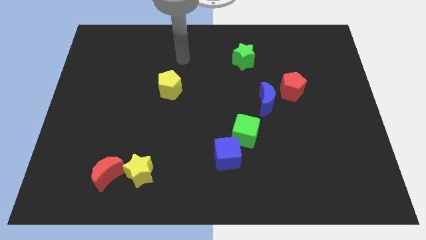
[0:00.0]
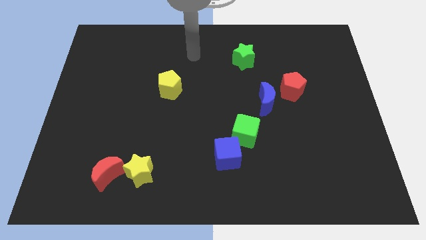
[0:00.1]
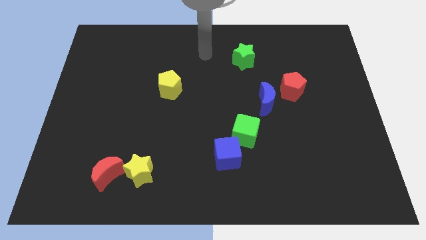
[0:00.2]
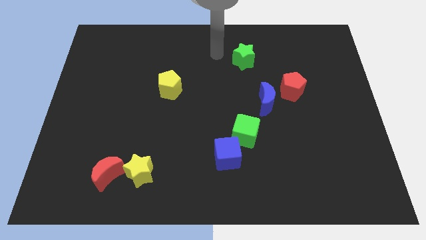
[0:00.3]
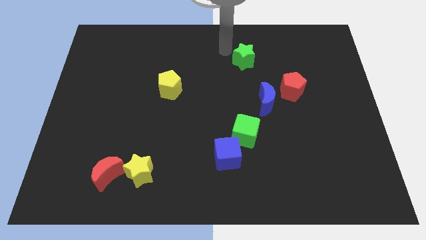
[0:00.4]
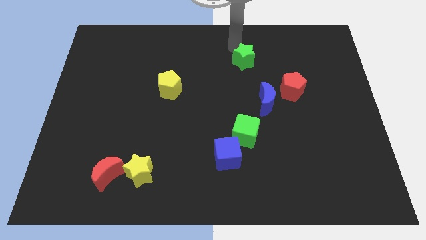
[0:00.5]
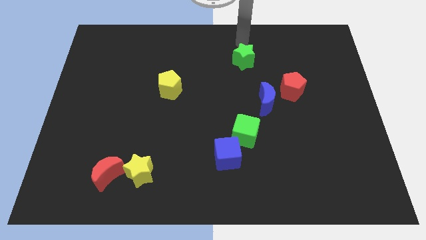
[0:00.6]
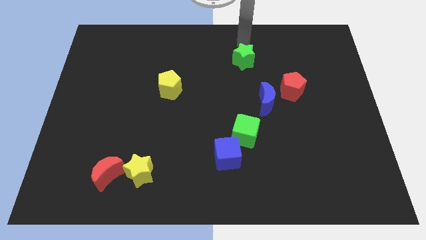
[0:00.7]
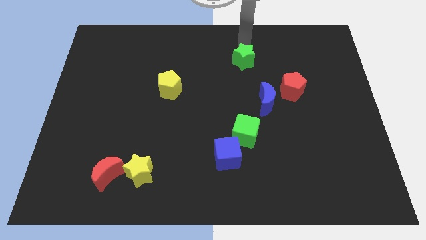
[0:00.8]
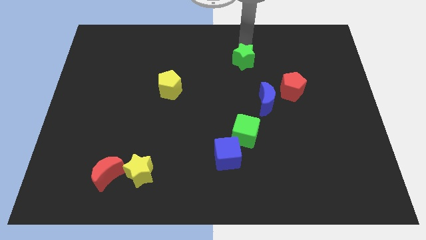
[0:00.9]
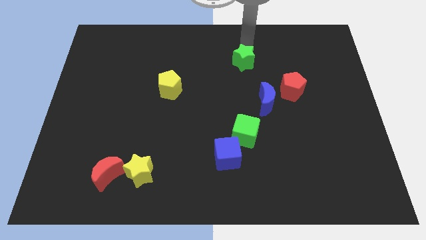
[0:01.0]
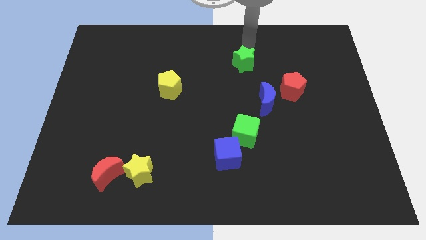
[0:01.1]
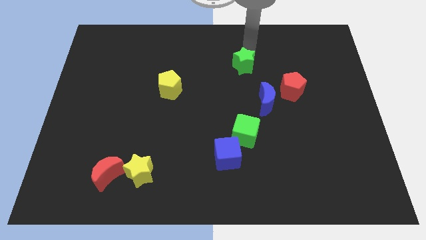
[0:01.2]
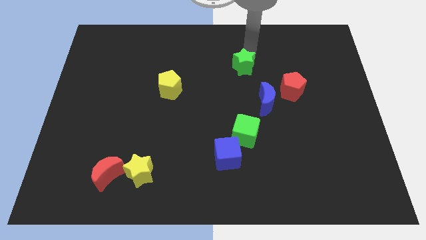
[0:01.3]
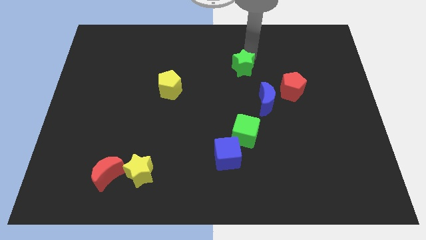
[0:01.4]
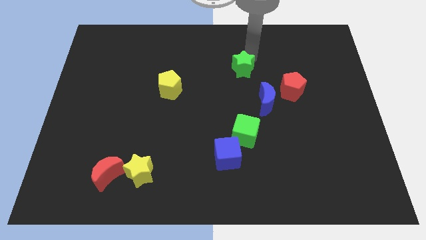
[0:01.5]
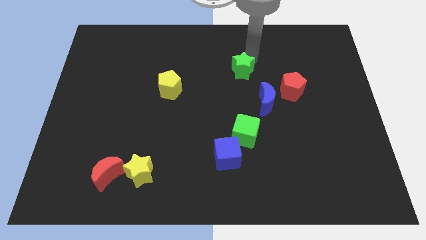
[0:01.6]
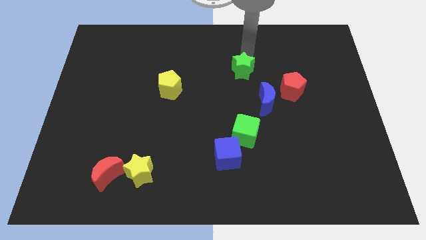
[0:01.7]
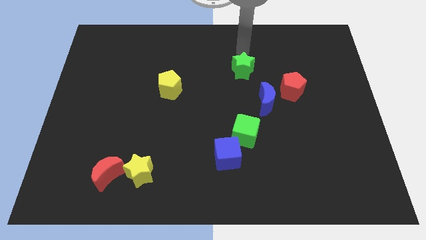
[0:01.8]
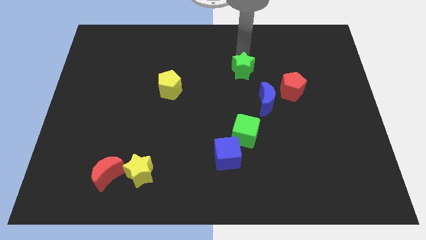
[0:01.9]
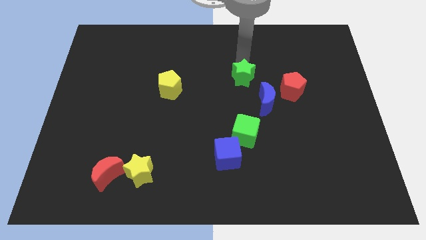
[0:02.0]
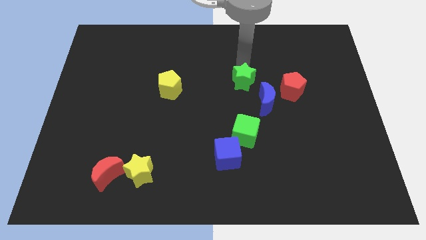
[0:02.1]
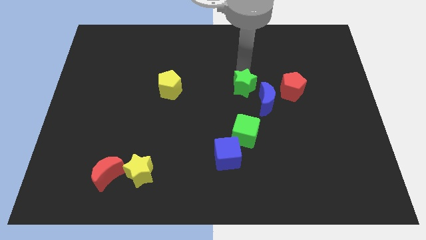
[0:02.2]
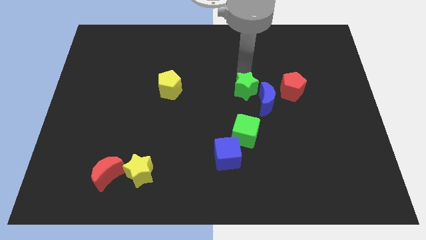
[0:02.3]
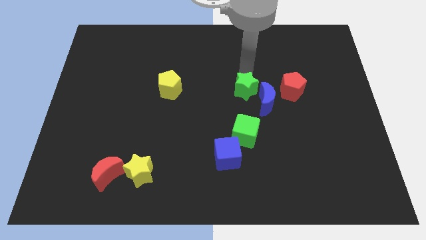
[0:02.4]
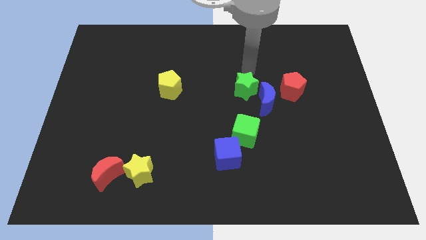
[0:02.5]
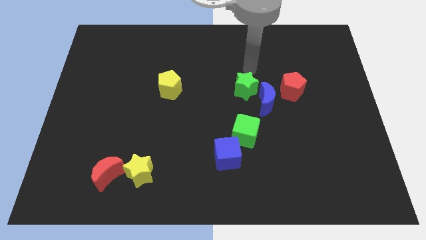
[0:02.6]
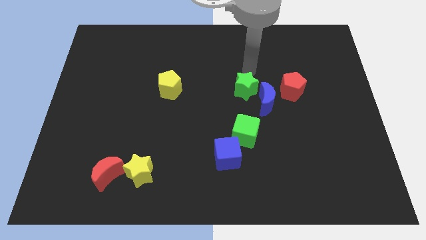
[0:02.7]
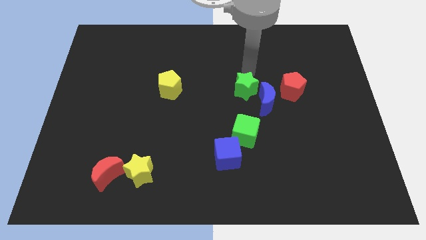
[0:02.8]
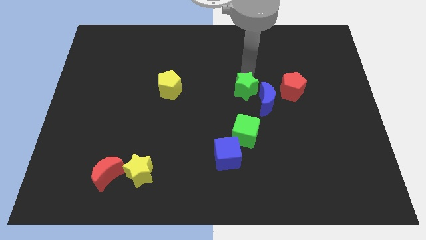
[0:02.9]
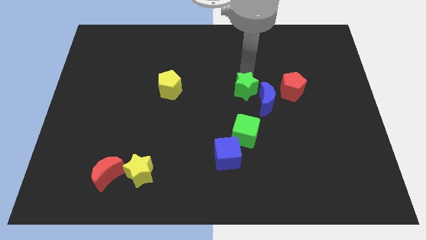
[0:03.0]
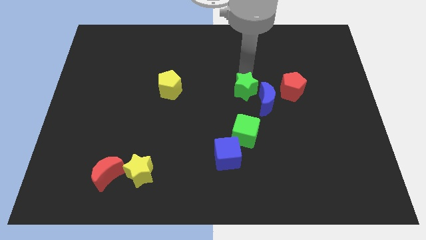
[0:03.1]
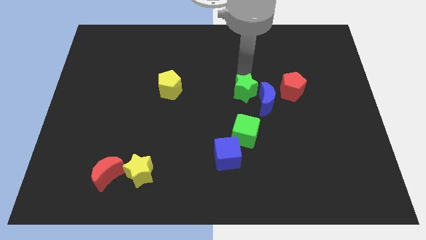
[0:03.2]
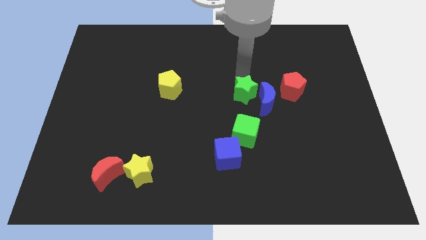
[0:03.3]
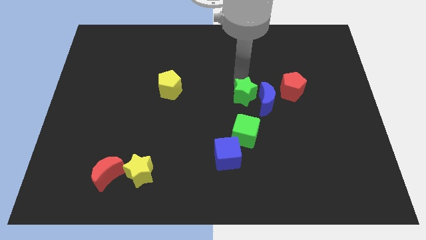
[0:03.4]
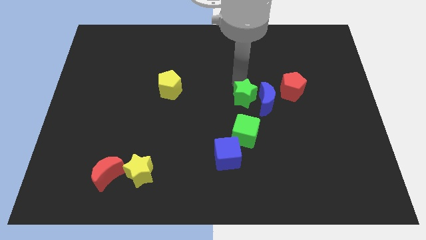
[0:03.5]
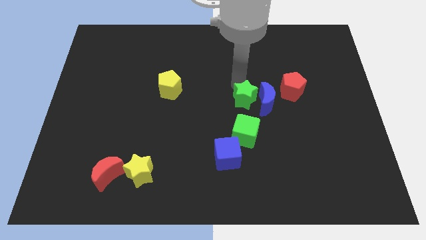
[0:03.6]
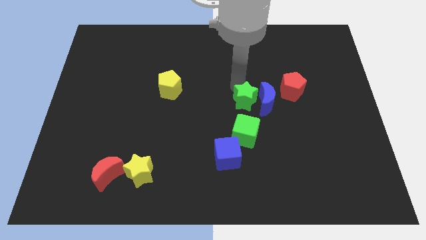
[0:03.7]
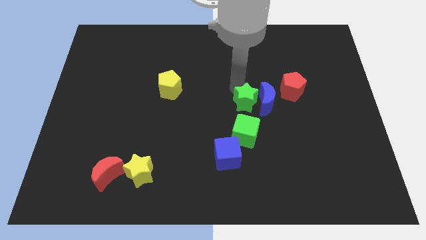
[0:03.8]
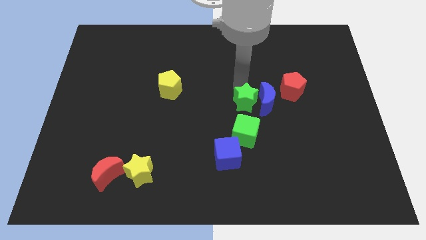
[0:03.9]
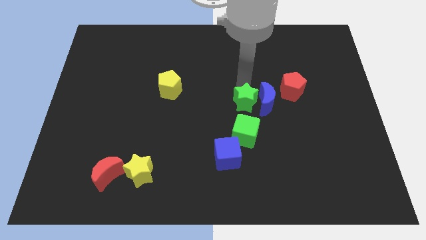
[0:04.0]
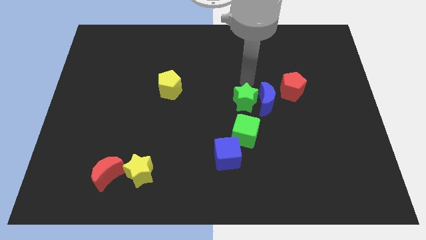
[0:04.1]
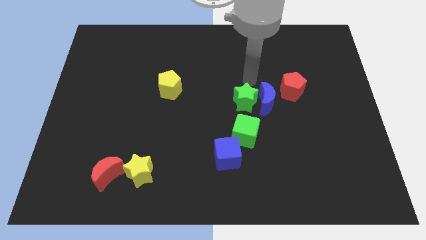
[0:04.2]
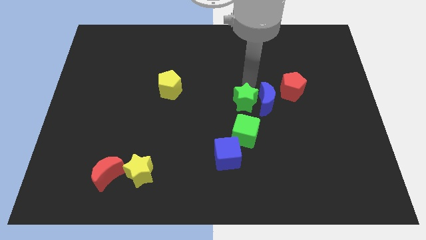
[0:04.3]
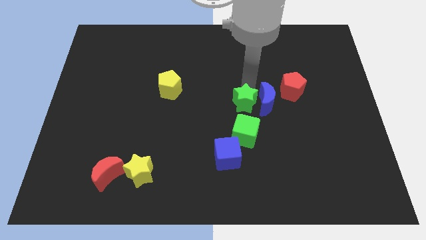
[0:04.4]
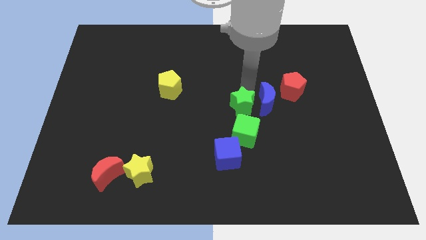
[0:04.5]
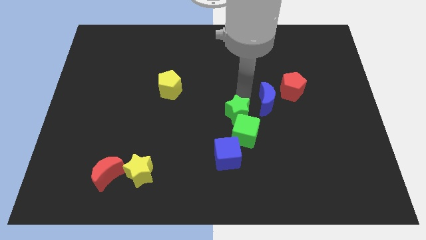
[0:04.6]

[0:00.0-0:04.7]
push the green star next to the green cube

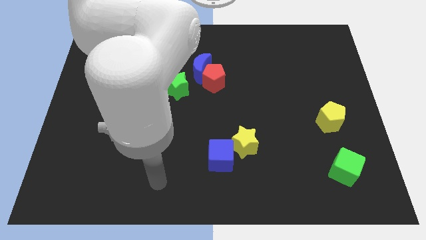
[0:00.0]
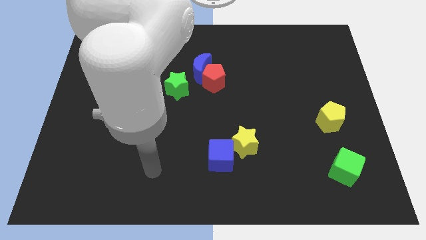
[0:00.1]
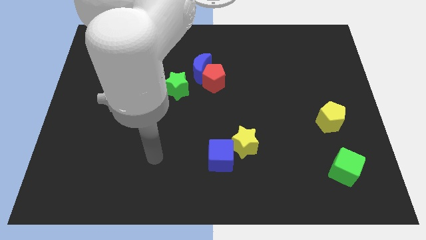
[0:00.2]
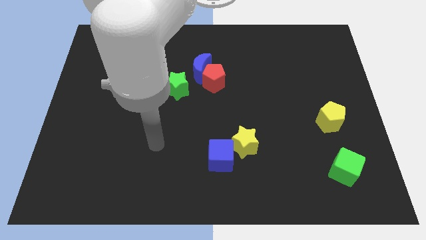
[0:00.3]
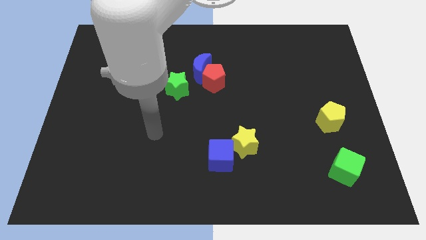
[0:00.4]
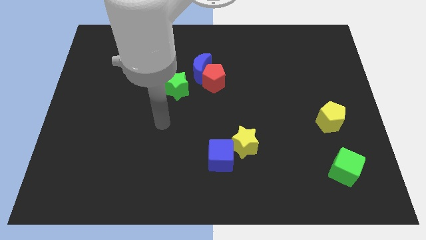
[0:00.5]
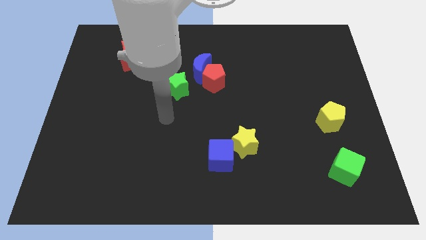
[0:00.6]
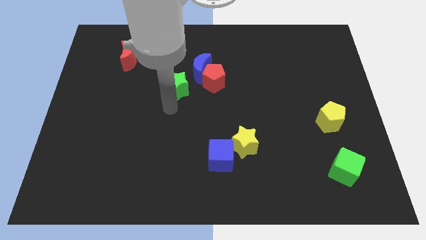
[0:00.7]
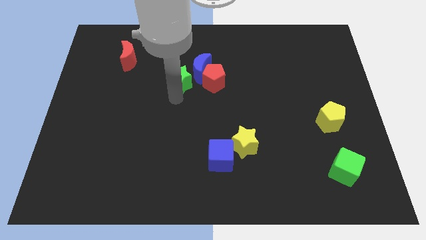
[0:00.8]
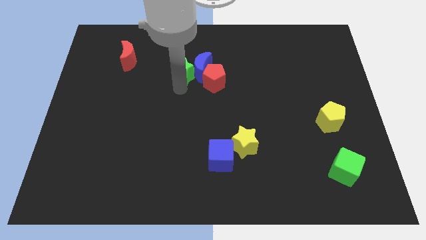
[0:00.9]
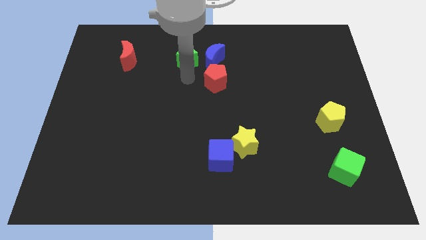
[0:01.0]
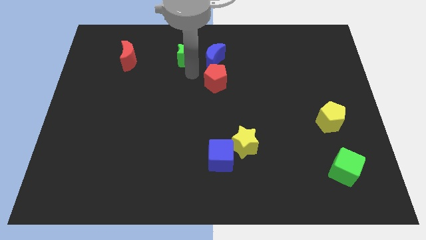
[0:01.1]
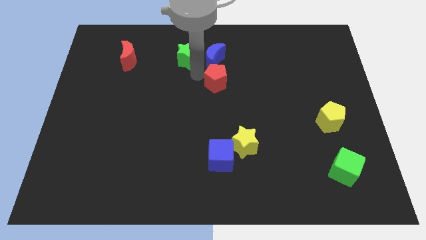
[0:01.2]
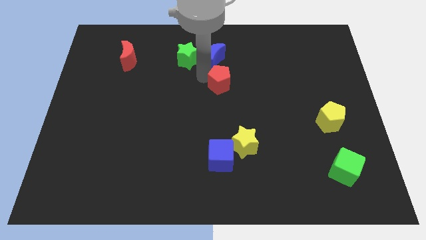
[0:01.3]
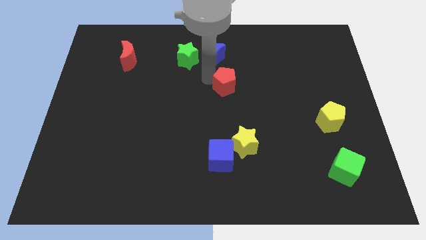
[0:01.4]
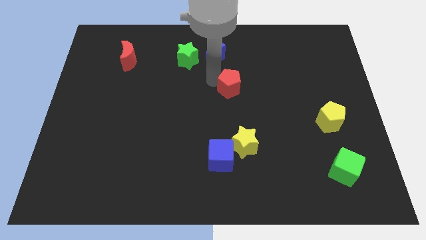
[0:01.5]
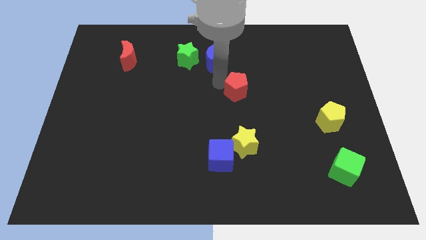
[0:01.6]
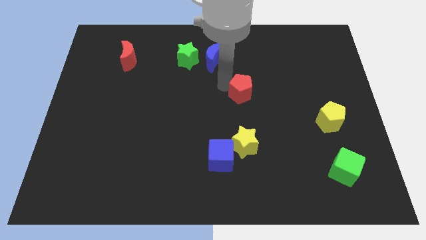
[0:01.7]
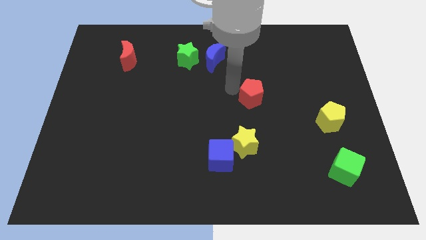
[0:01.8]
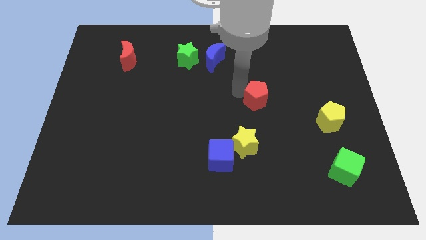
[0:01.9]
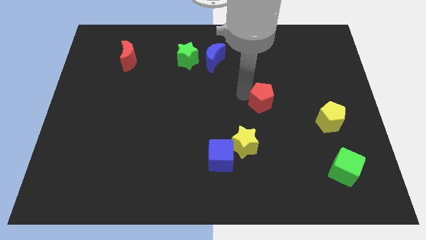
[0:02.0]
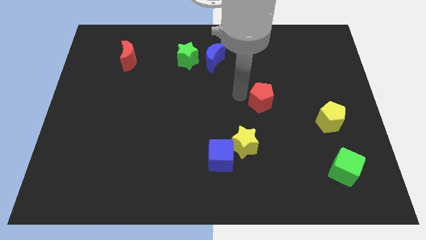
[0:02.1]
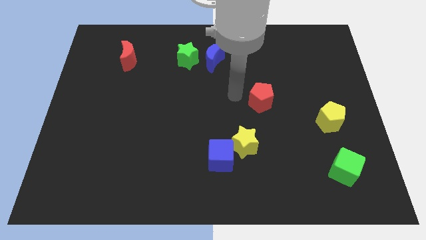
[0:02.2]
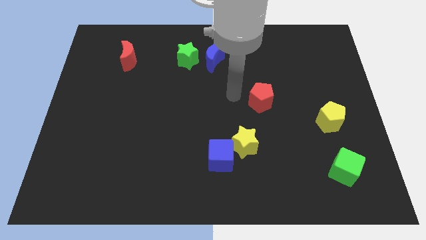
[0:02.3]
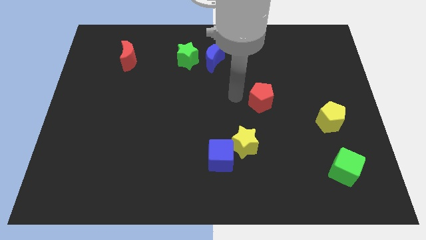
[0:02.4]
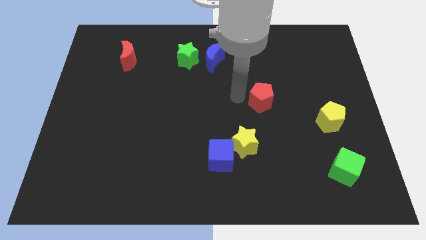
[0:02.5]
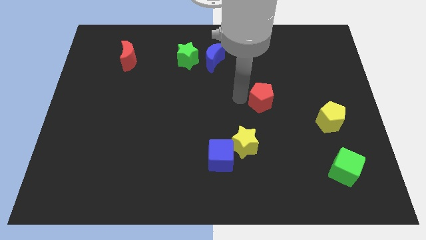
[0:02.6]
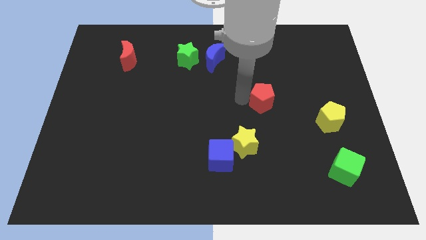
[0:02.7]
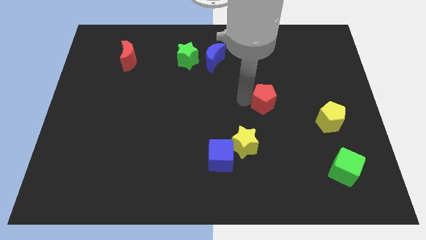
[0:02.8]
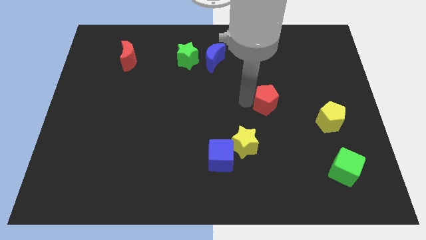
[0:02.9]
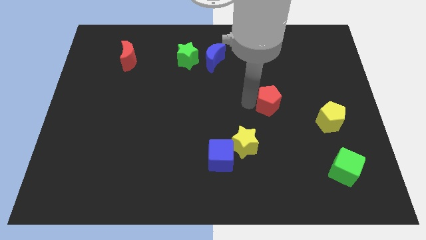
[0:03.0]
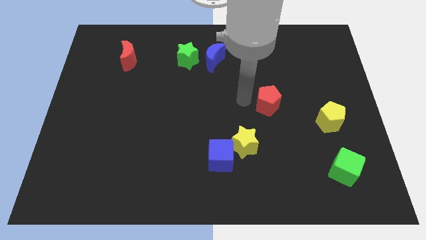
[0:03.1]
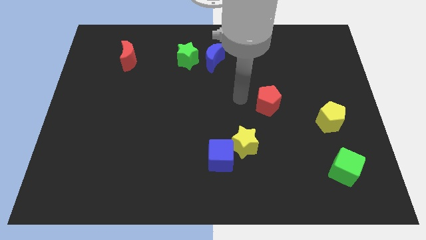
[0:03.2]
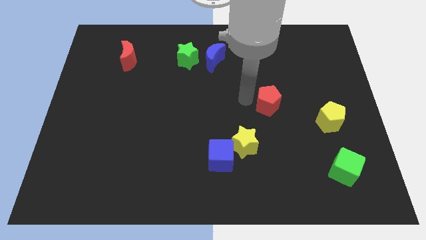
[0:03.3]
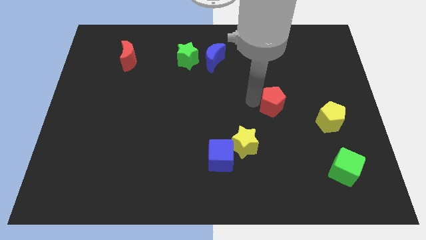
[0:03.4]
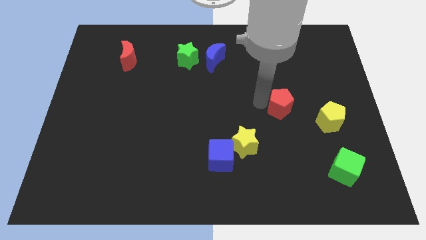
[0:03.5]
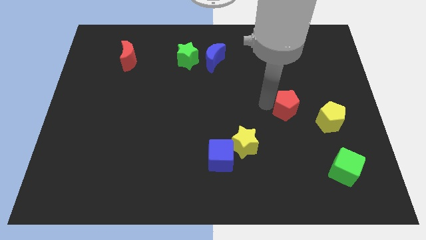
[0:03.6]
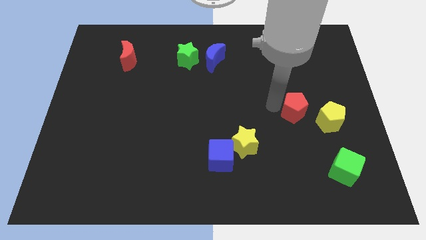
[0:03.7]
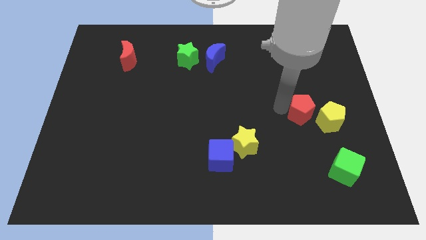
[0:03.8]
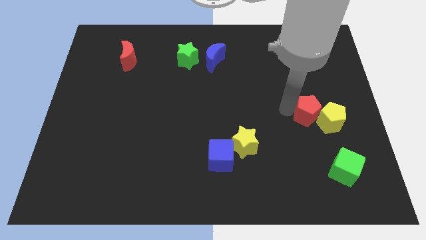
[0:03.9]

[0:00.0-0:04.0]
slide the red pentagon to the yellow pentagon
